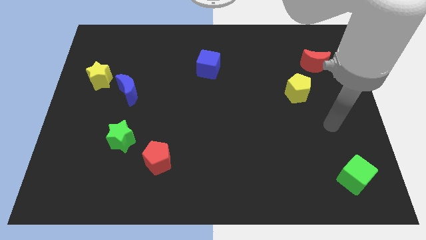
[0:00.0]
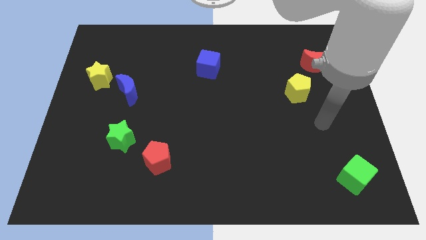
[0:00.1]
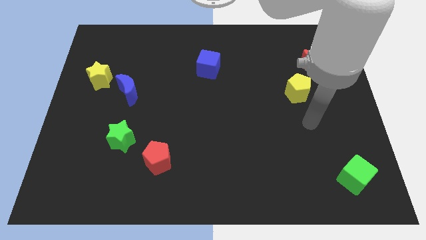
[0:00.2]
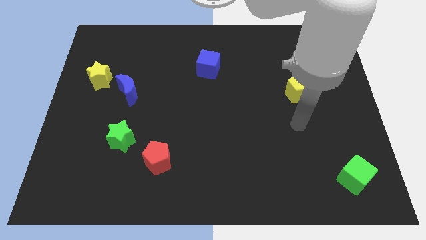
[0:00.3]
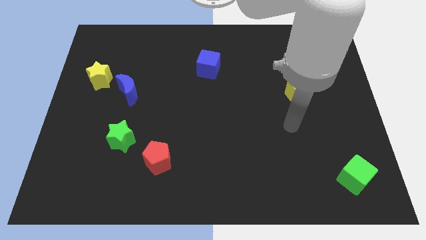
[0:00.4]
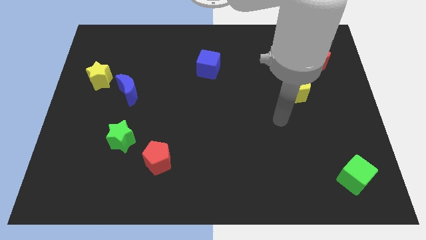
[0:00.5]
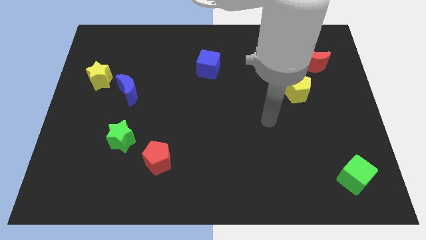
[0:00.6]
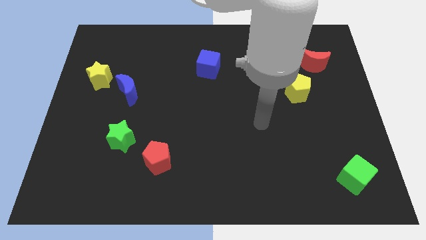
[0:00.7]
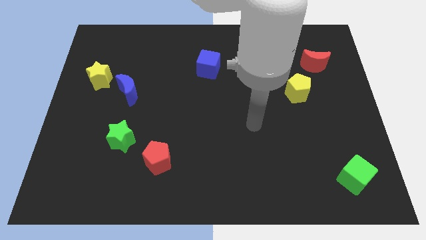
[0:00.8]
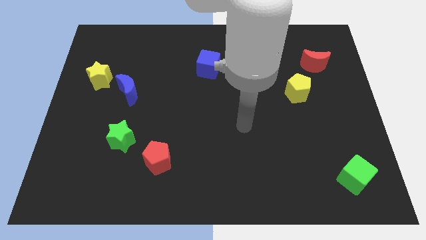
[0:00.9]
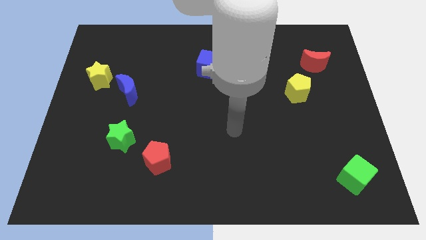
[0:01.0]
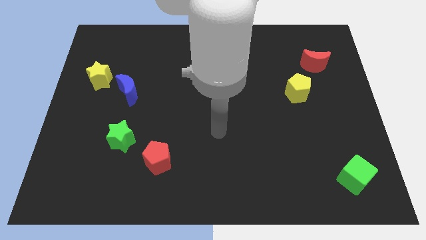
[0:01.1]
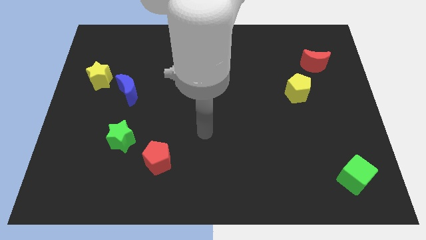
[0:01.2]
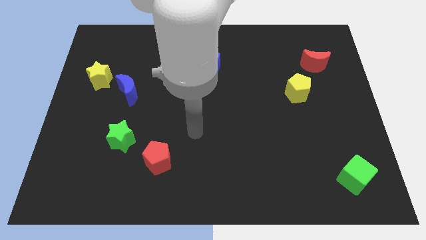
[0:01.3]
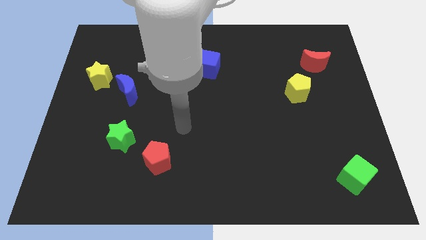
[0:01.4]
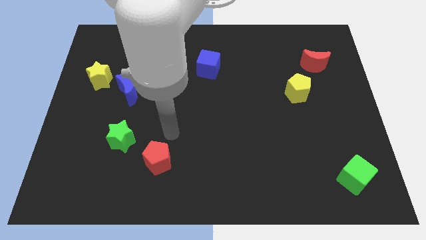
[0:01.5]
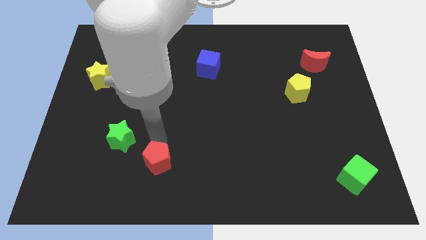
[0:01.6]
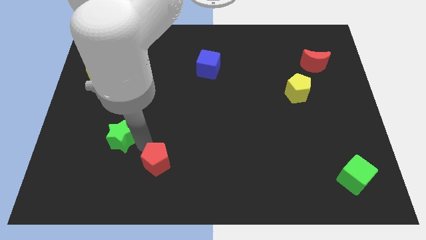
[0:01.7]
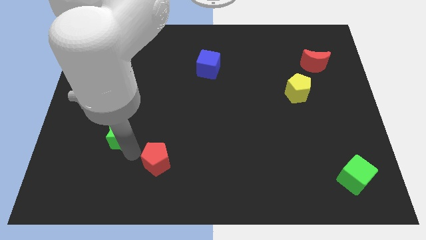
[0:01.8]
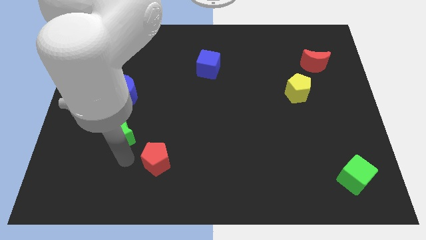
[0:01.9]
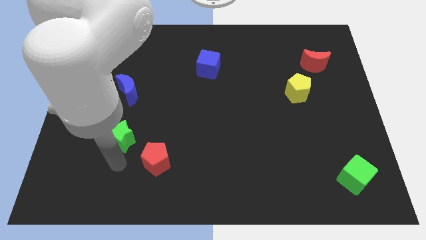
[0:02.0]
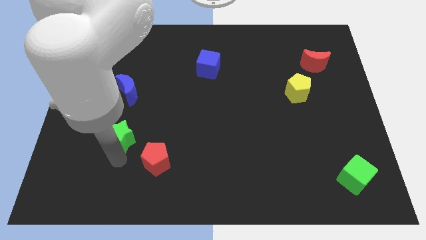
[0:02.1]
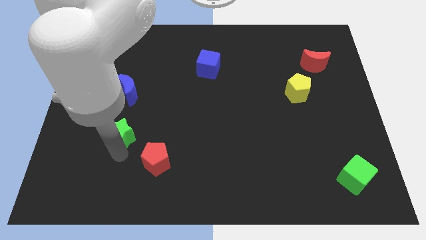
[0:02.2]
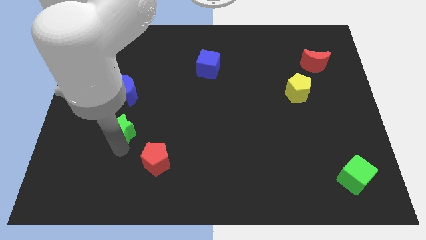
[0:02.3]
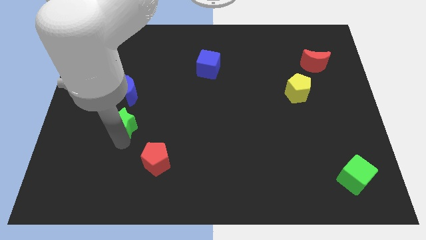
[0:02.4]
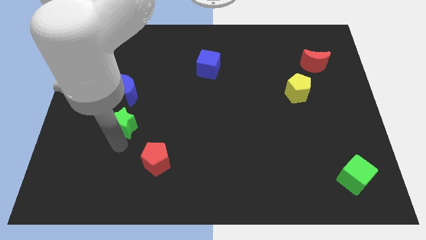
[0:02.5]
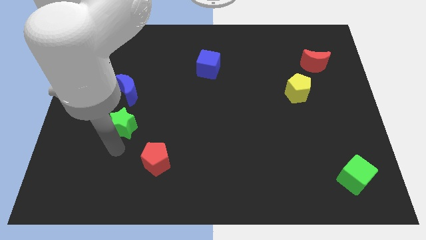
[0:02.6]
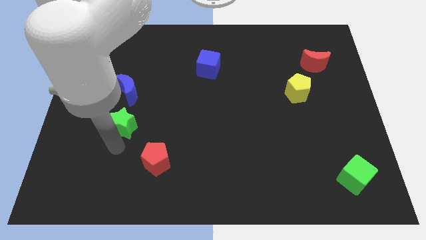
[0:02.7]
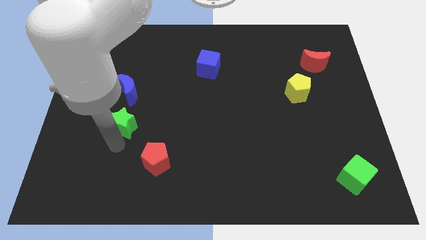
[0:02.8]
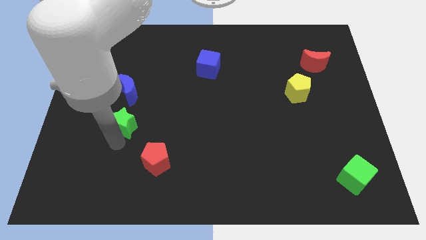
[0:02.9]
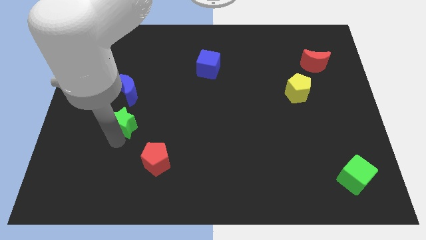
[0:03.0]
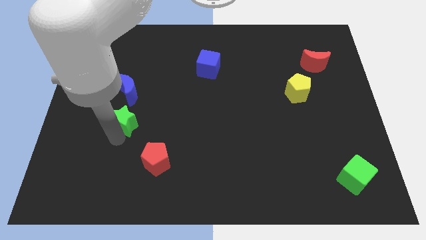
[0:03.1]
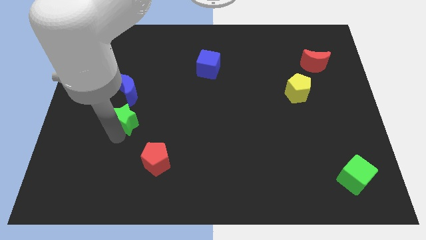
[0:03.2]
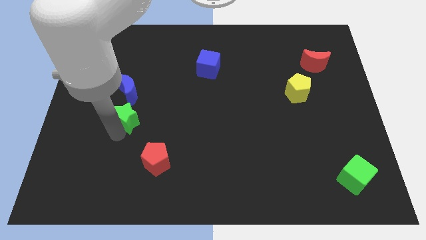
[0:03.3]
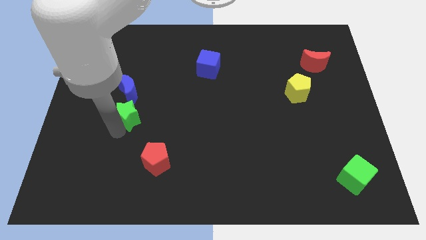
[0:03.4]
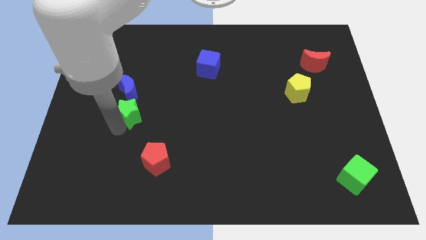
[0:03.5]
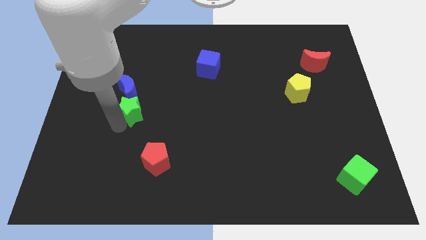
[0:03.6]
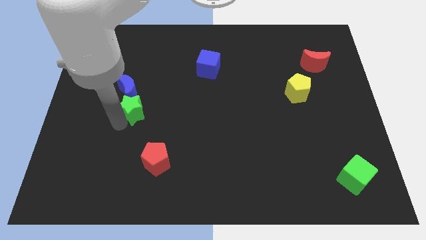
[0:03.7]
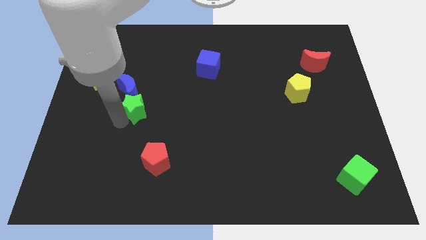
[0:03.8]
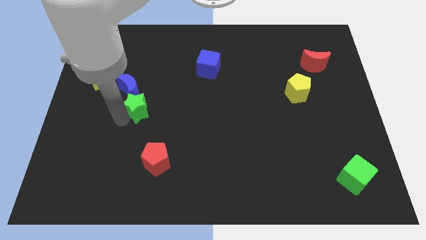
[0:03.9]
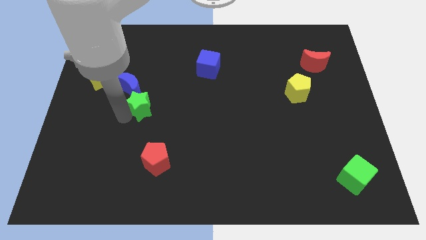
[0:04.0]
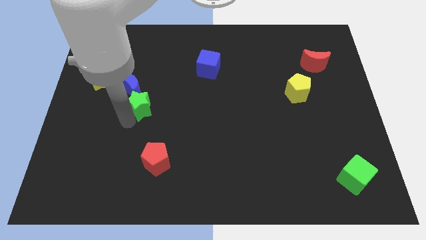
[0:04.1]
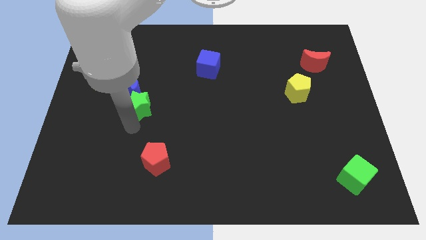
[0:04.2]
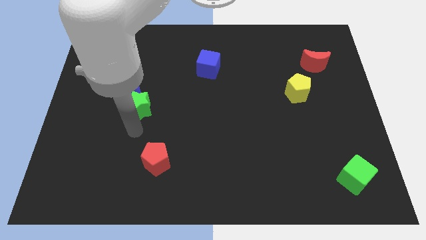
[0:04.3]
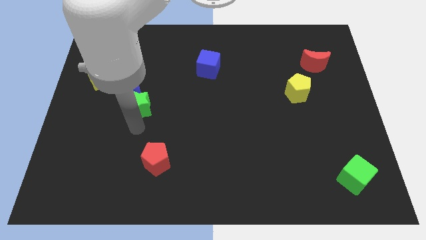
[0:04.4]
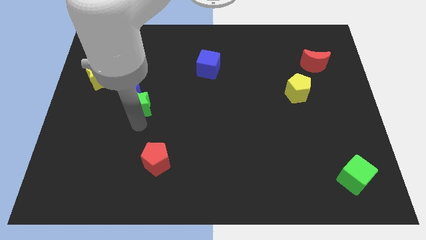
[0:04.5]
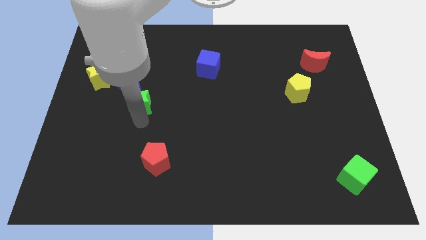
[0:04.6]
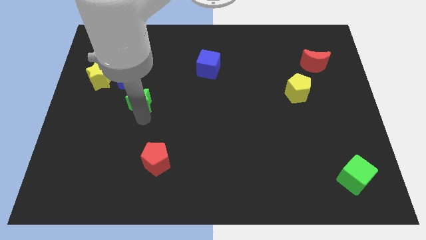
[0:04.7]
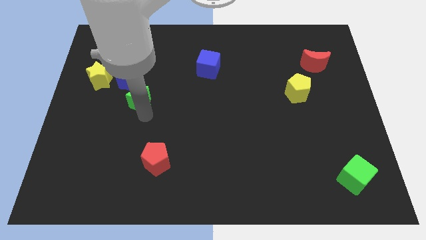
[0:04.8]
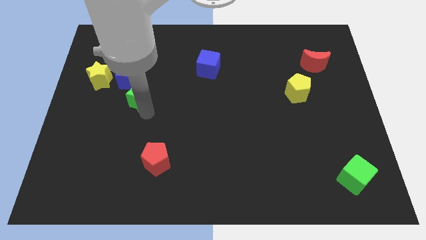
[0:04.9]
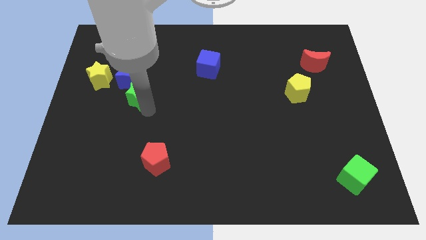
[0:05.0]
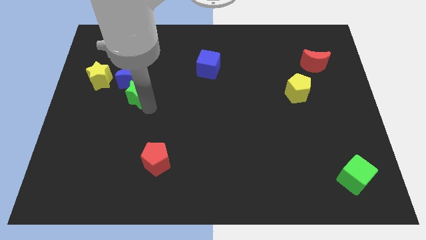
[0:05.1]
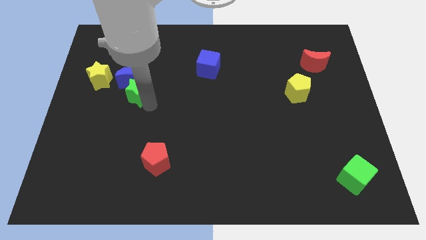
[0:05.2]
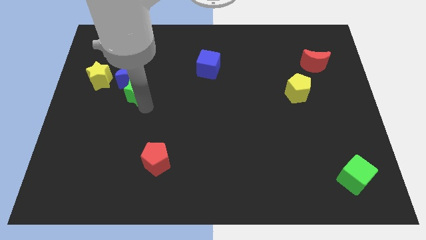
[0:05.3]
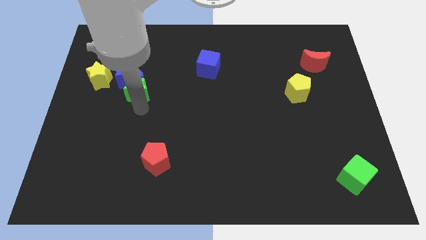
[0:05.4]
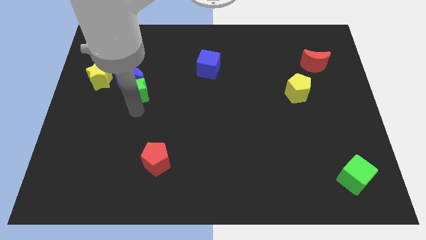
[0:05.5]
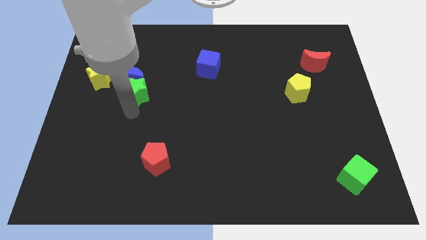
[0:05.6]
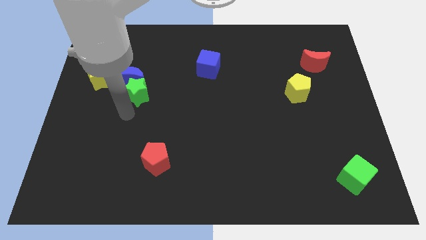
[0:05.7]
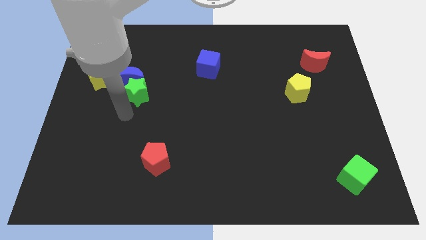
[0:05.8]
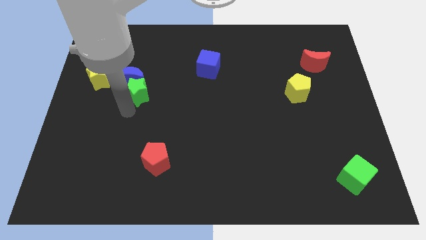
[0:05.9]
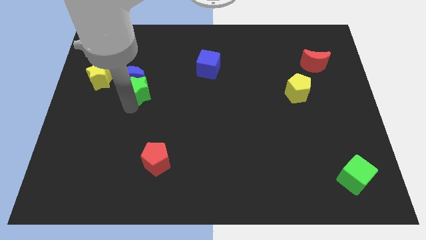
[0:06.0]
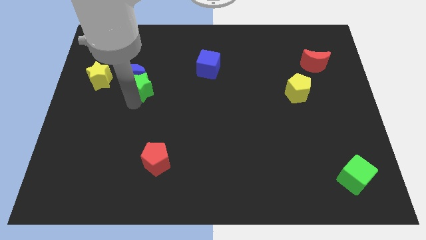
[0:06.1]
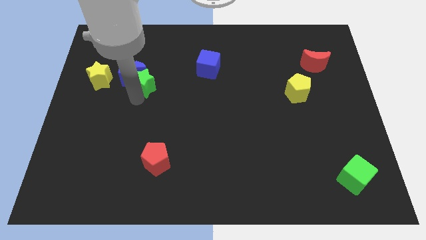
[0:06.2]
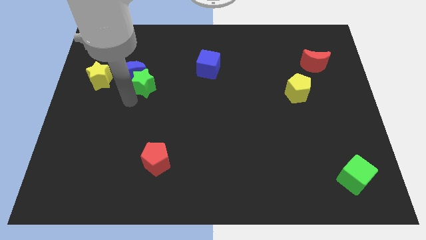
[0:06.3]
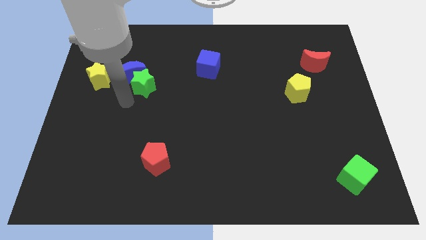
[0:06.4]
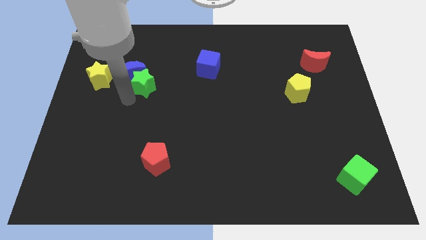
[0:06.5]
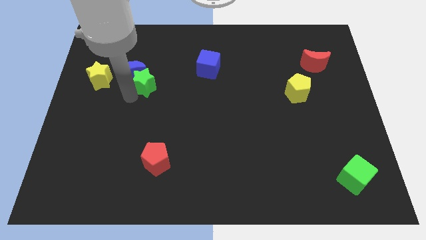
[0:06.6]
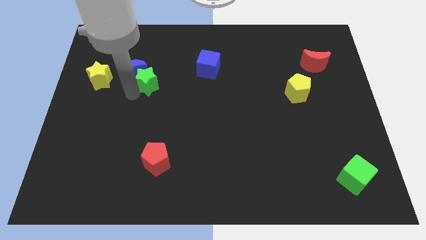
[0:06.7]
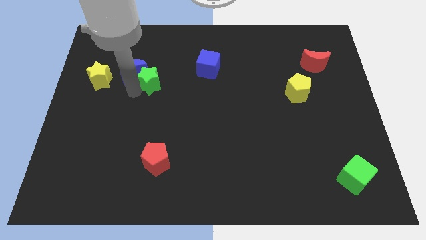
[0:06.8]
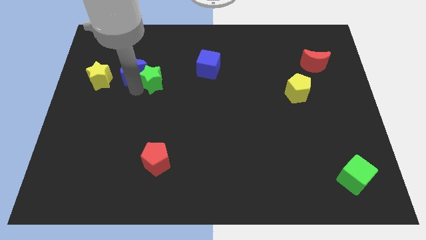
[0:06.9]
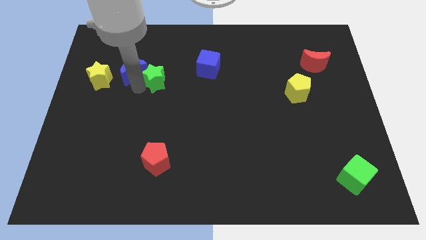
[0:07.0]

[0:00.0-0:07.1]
put the green star just left of the blue cube
